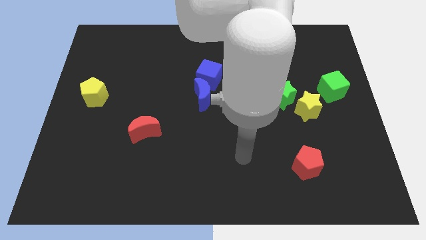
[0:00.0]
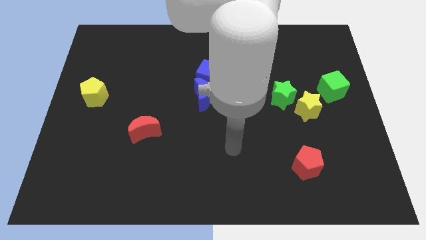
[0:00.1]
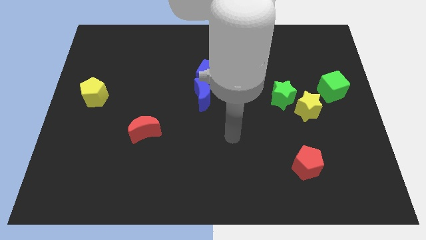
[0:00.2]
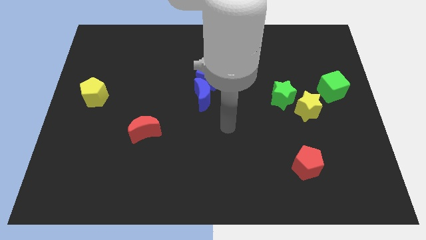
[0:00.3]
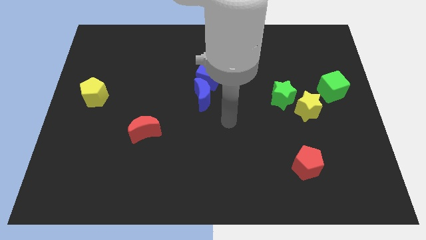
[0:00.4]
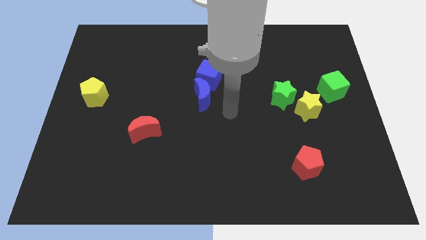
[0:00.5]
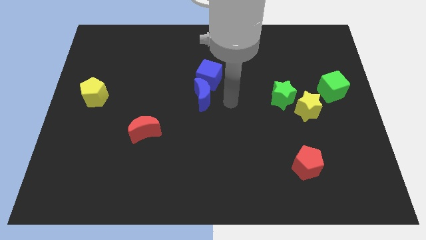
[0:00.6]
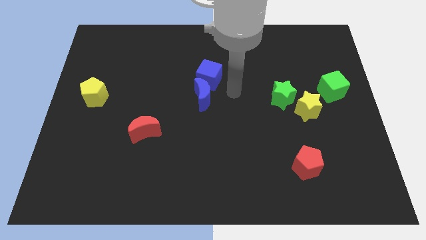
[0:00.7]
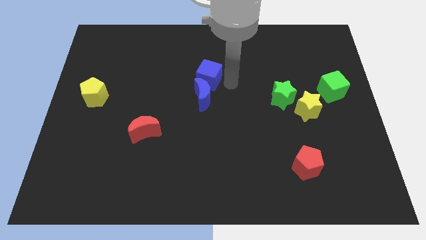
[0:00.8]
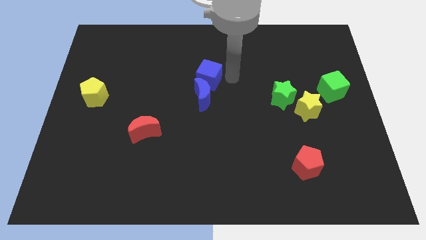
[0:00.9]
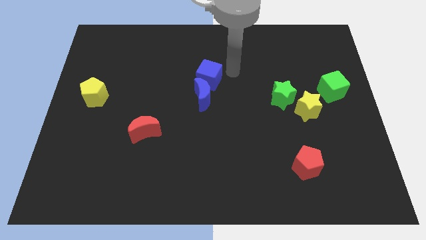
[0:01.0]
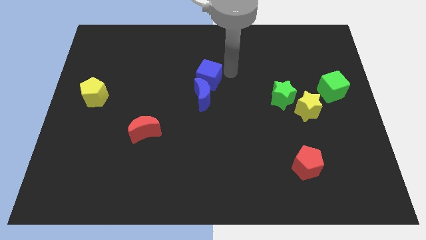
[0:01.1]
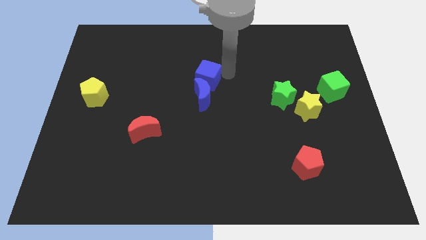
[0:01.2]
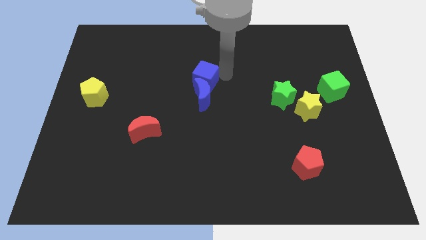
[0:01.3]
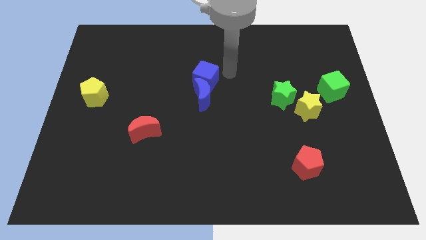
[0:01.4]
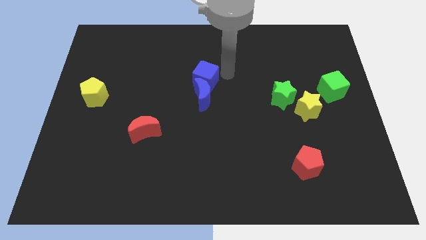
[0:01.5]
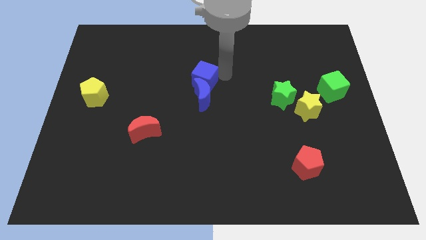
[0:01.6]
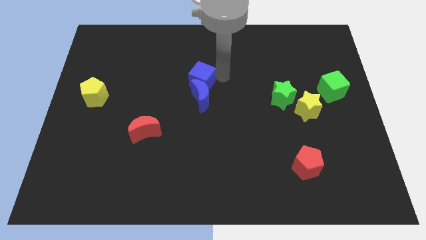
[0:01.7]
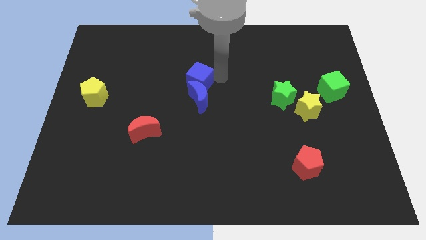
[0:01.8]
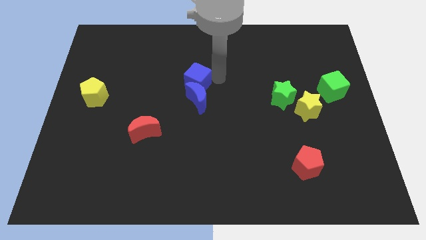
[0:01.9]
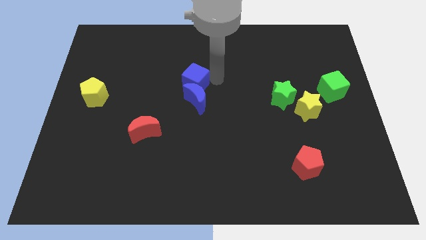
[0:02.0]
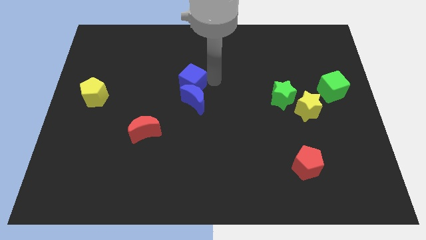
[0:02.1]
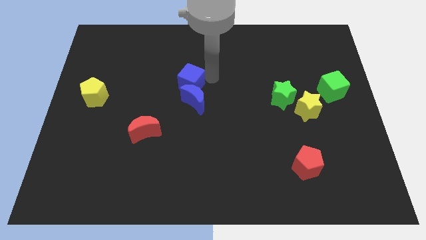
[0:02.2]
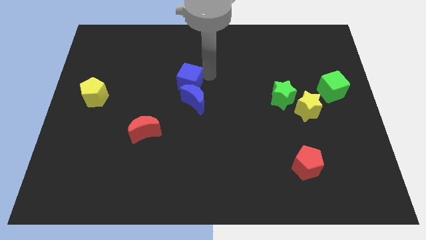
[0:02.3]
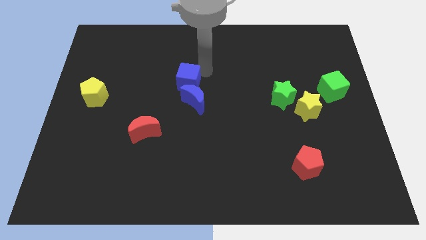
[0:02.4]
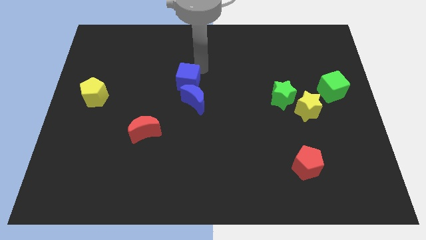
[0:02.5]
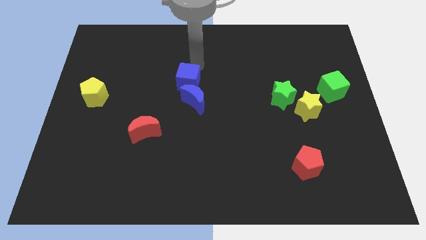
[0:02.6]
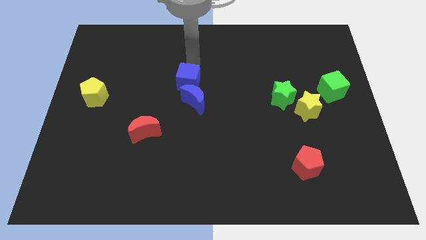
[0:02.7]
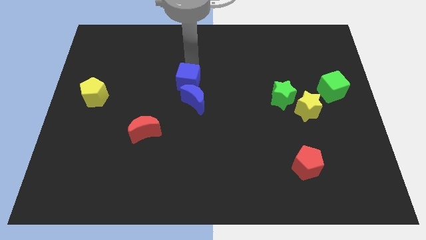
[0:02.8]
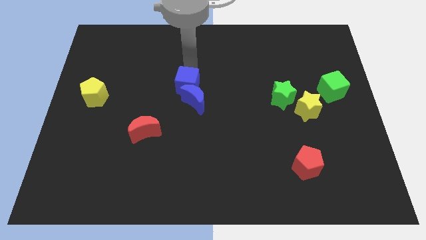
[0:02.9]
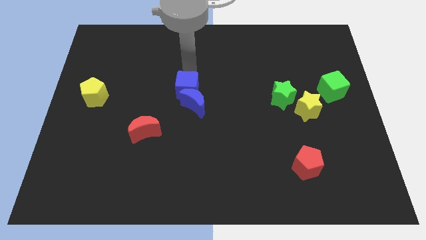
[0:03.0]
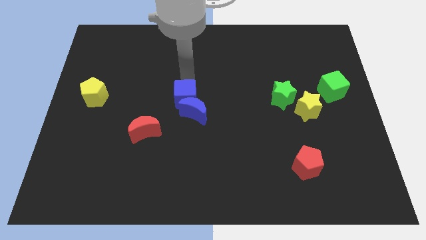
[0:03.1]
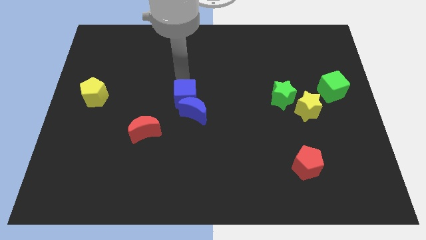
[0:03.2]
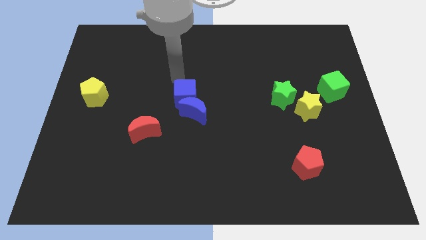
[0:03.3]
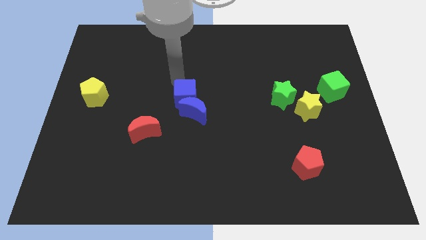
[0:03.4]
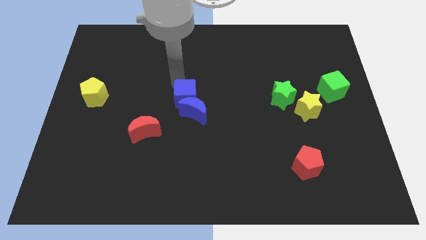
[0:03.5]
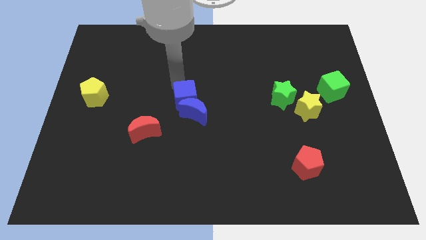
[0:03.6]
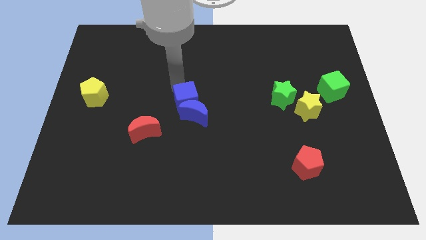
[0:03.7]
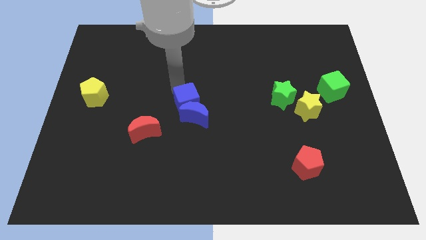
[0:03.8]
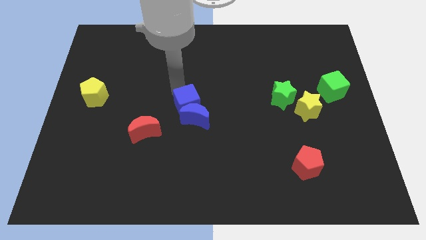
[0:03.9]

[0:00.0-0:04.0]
slide the blue cube a little bit down

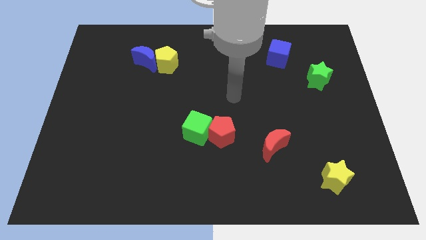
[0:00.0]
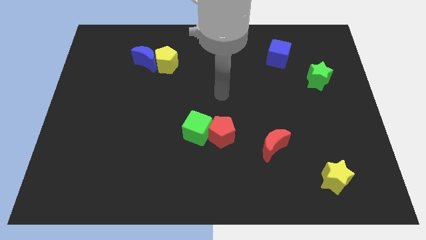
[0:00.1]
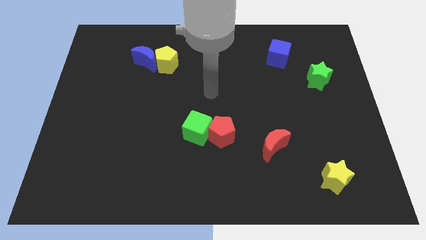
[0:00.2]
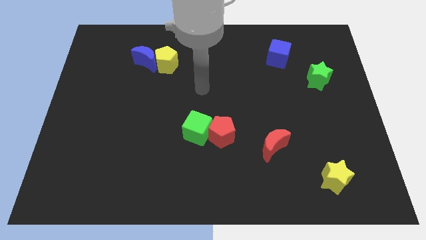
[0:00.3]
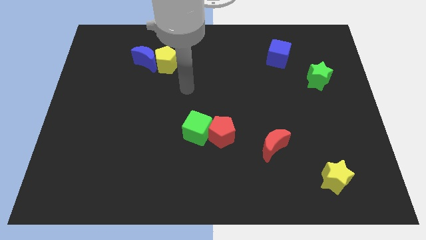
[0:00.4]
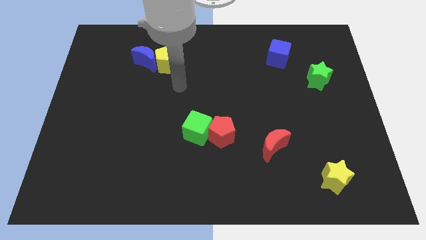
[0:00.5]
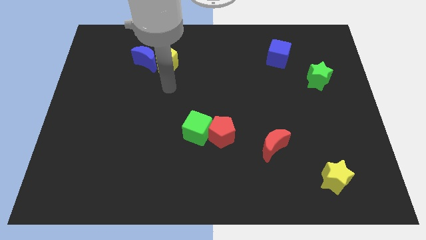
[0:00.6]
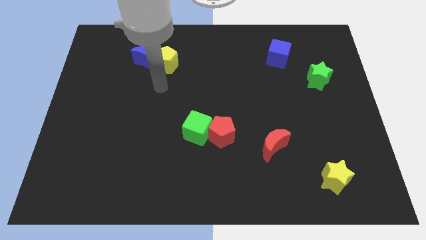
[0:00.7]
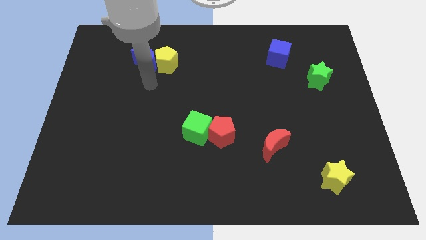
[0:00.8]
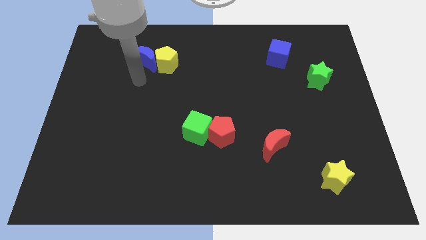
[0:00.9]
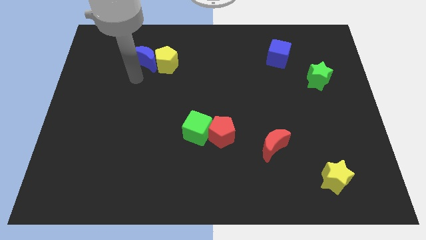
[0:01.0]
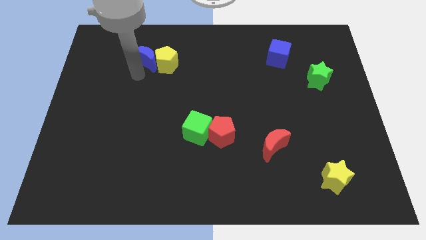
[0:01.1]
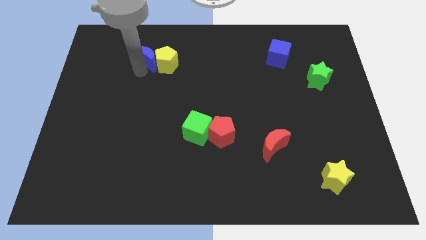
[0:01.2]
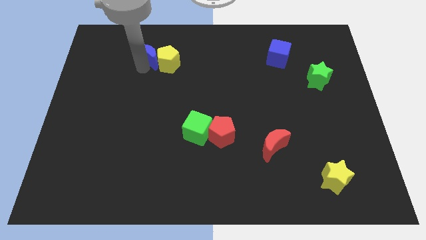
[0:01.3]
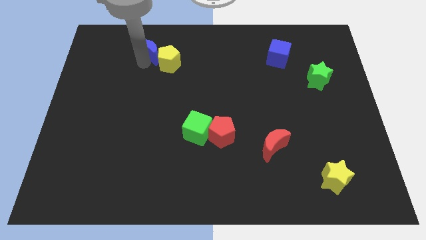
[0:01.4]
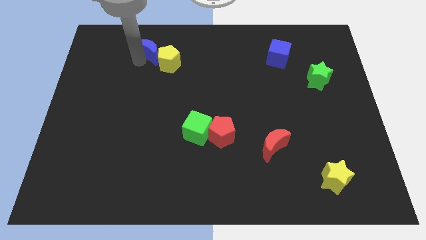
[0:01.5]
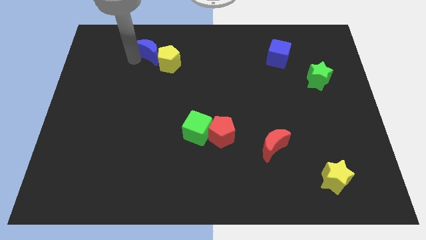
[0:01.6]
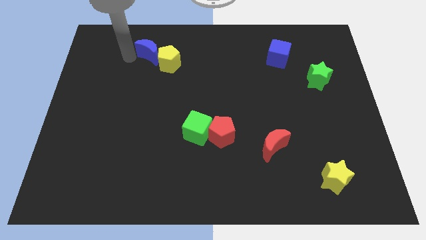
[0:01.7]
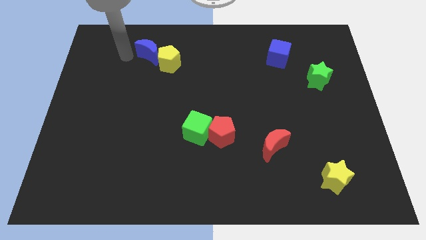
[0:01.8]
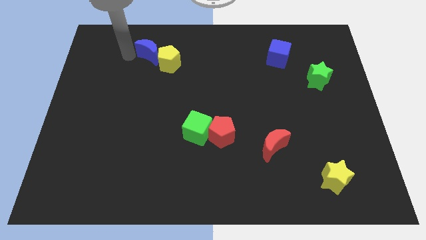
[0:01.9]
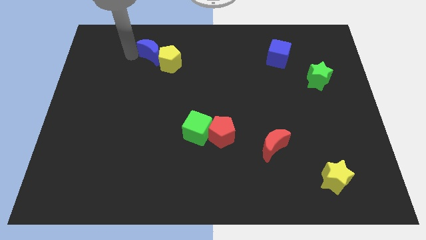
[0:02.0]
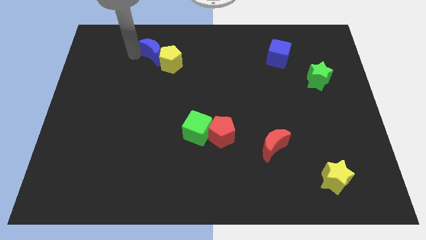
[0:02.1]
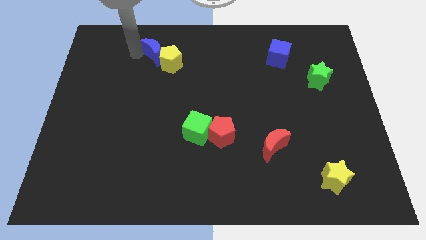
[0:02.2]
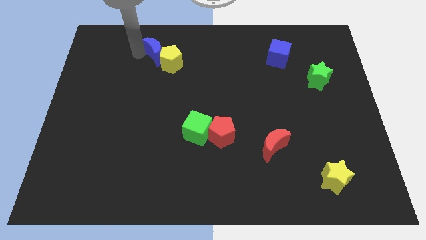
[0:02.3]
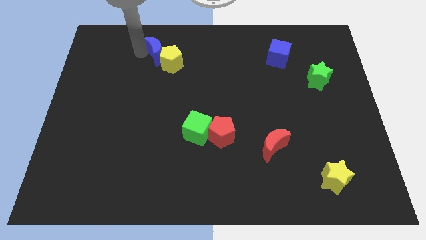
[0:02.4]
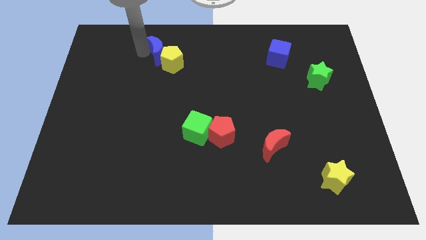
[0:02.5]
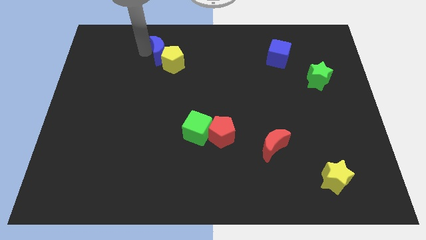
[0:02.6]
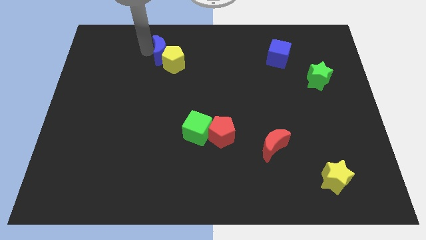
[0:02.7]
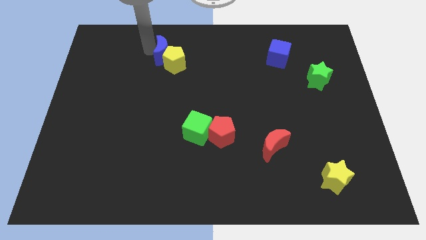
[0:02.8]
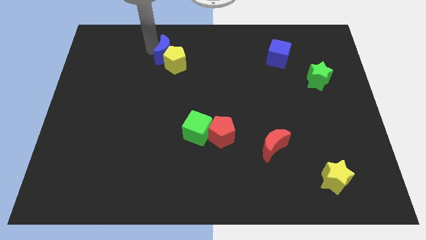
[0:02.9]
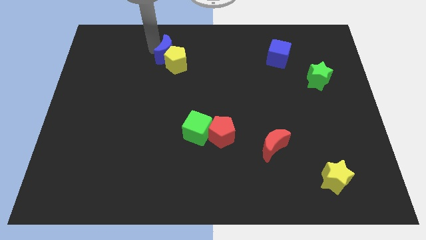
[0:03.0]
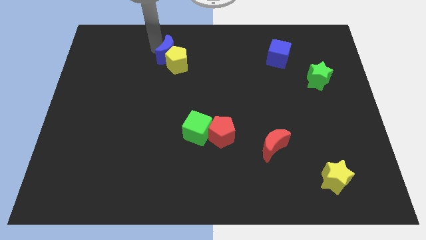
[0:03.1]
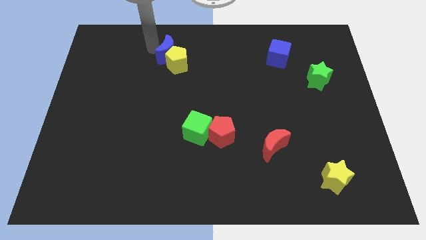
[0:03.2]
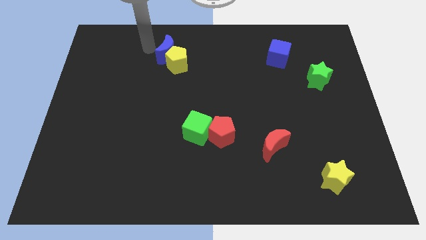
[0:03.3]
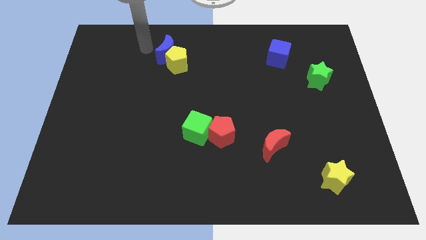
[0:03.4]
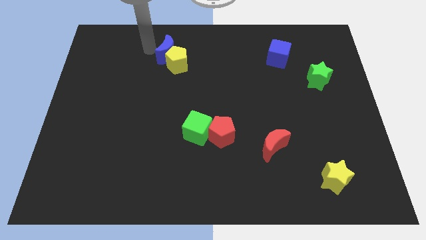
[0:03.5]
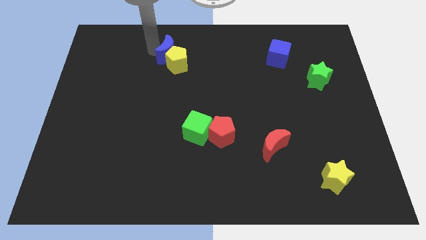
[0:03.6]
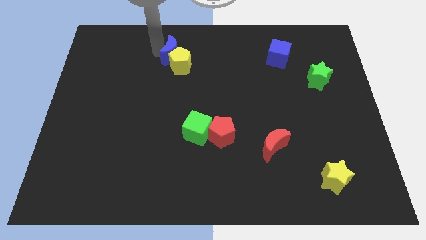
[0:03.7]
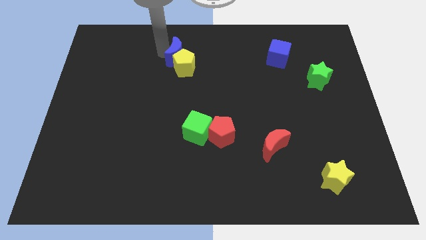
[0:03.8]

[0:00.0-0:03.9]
slightly slide the blue moon right
